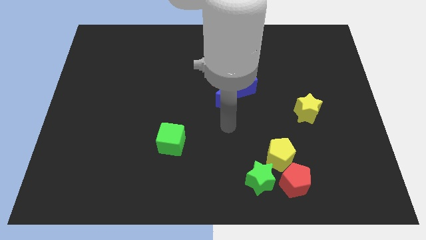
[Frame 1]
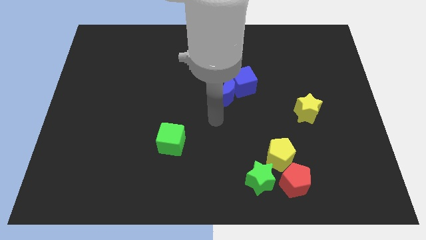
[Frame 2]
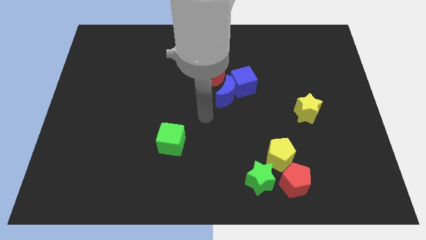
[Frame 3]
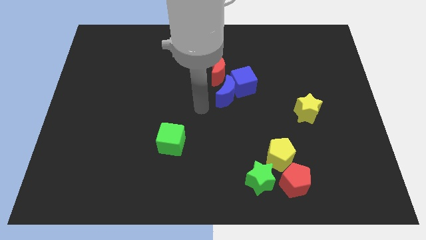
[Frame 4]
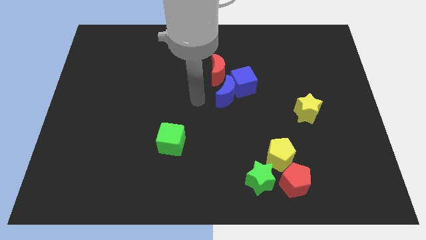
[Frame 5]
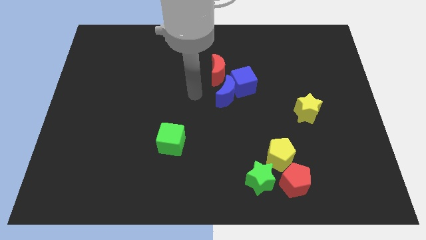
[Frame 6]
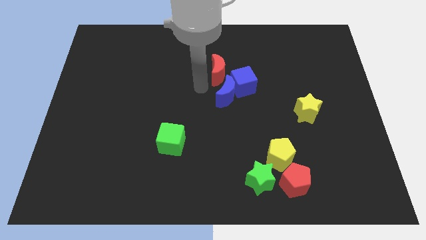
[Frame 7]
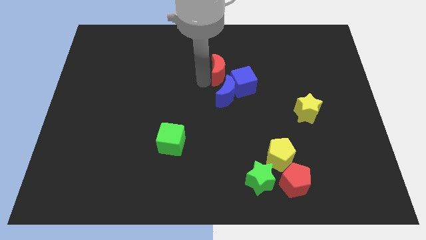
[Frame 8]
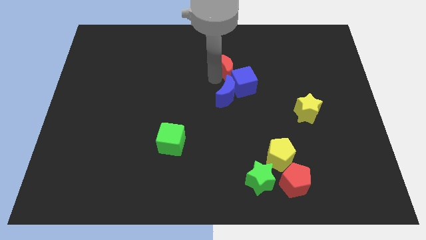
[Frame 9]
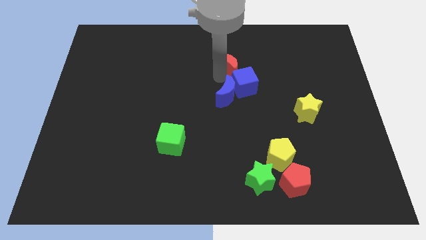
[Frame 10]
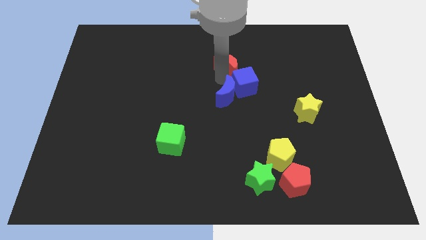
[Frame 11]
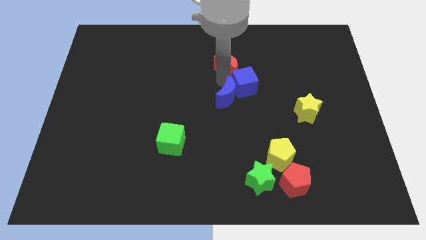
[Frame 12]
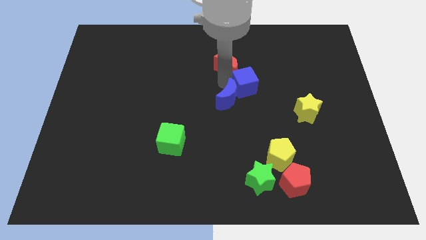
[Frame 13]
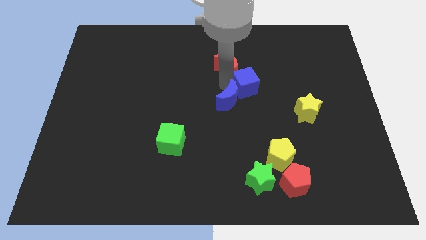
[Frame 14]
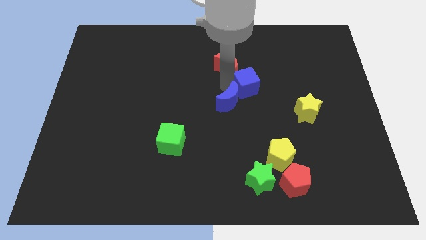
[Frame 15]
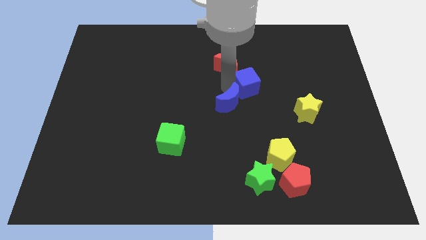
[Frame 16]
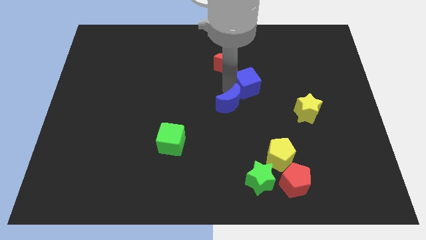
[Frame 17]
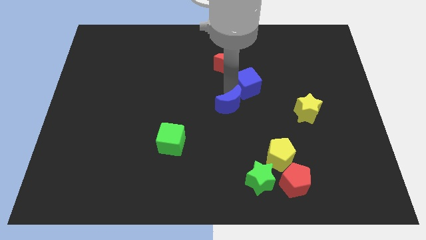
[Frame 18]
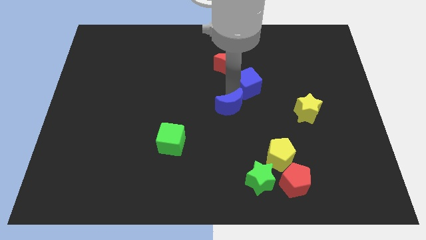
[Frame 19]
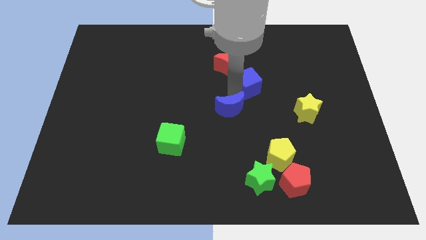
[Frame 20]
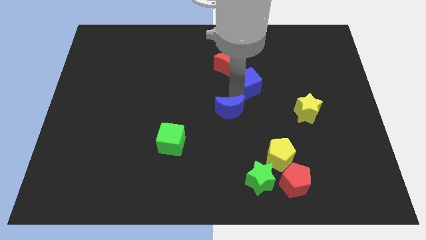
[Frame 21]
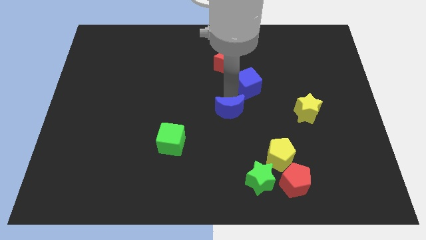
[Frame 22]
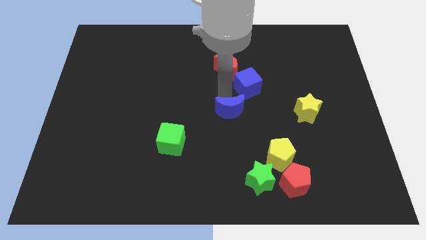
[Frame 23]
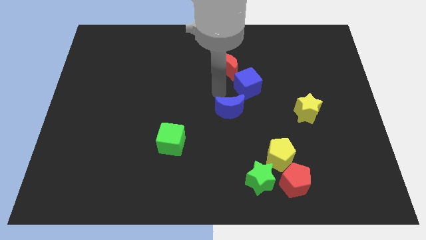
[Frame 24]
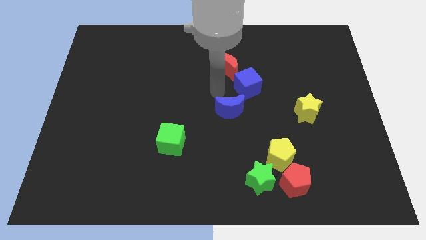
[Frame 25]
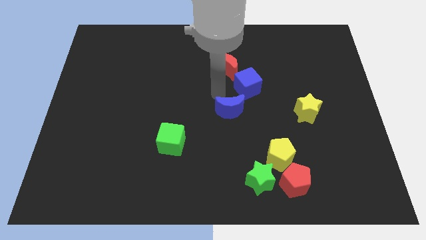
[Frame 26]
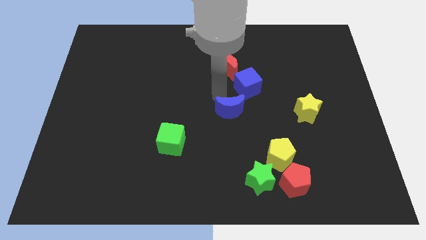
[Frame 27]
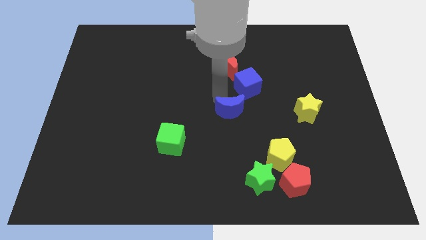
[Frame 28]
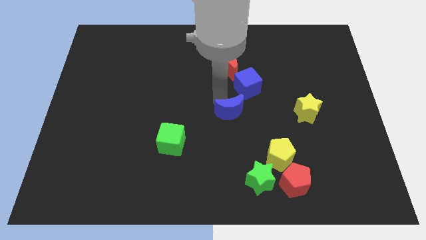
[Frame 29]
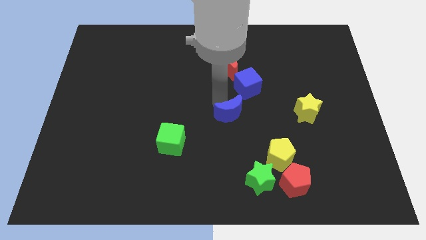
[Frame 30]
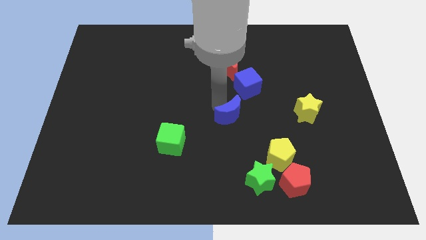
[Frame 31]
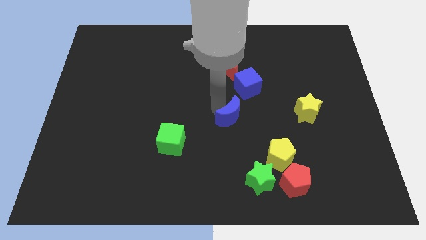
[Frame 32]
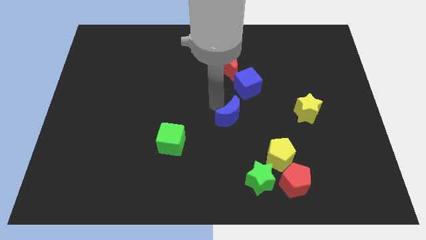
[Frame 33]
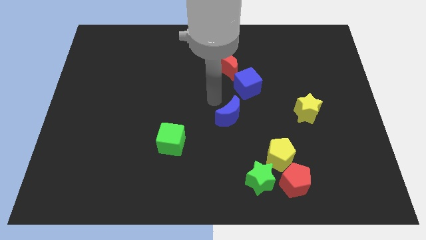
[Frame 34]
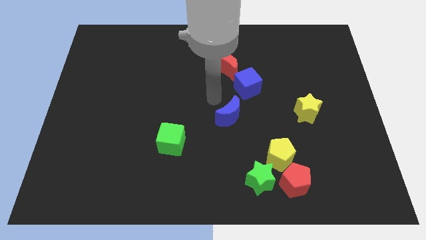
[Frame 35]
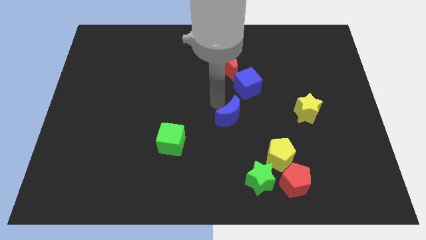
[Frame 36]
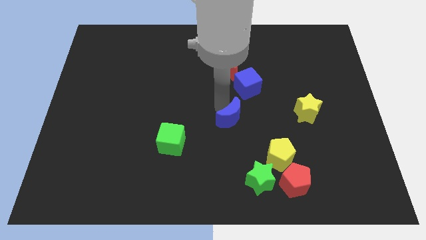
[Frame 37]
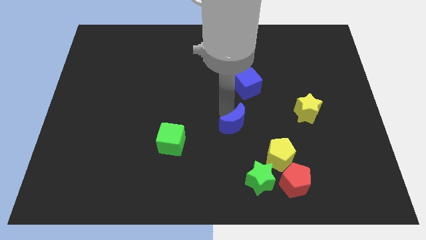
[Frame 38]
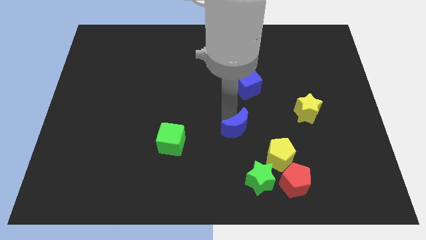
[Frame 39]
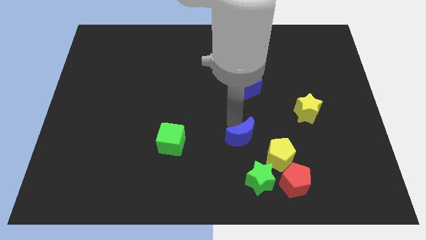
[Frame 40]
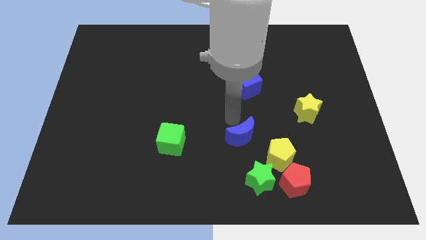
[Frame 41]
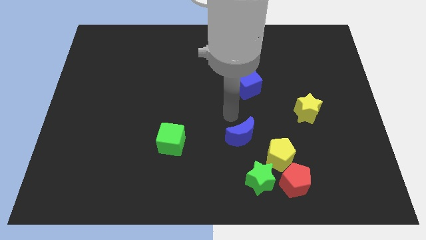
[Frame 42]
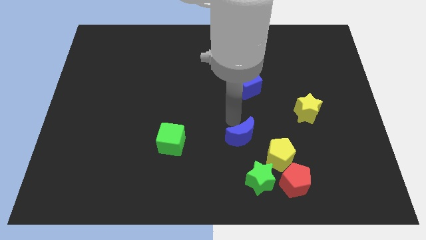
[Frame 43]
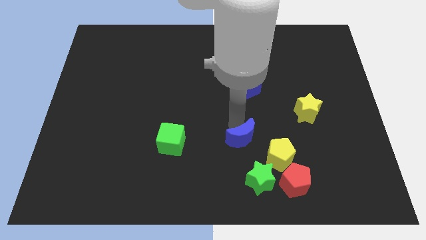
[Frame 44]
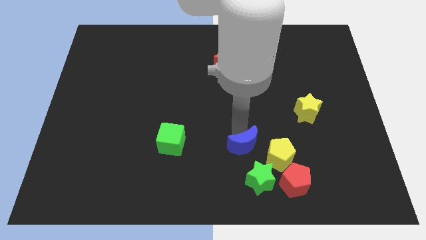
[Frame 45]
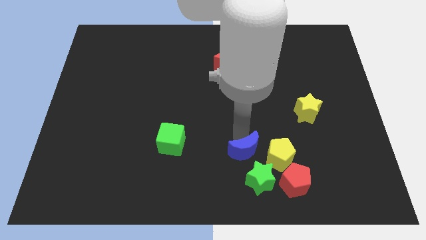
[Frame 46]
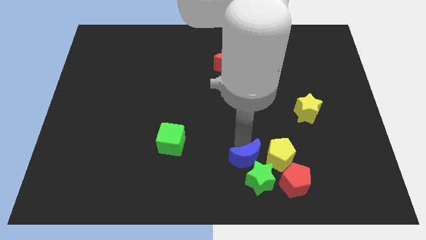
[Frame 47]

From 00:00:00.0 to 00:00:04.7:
slide the blue moon close to the green star

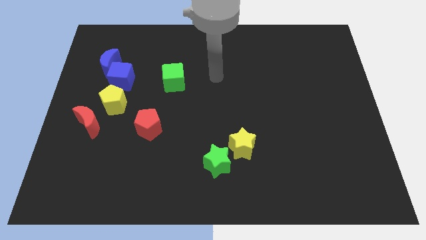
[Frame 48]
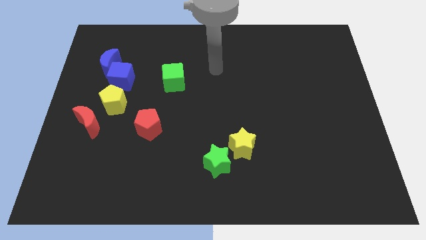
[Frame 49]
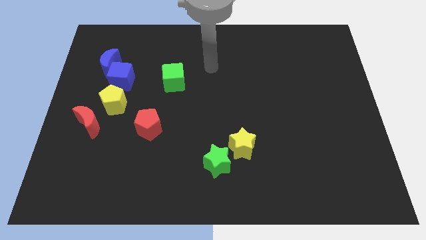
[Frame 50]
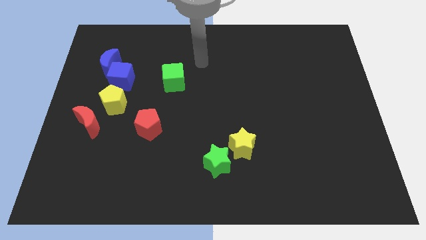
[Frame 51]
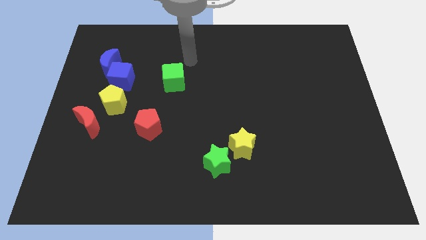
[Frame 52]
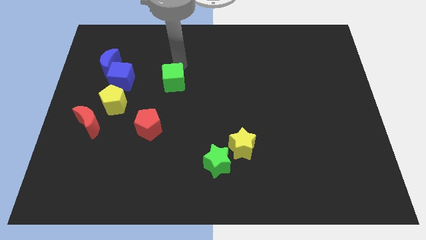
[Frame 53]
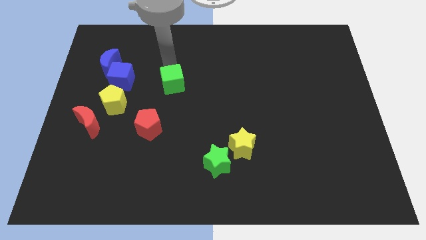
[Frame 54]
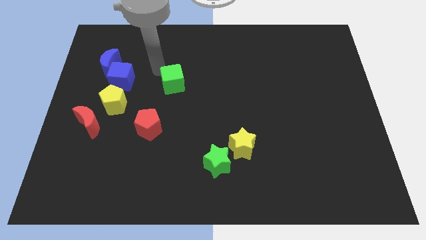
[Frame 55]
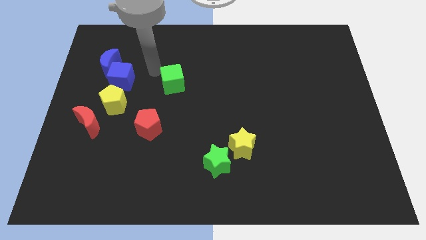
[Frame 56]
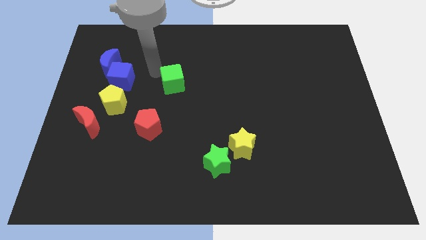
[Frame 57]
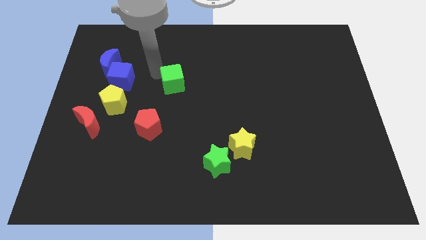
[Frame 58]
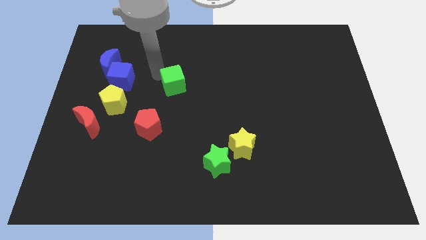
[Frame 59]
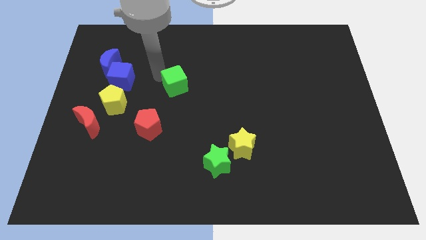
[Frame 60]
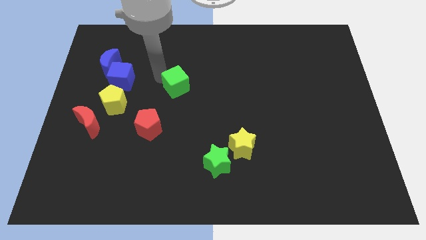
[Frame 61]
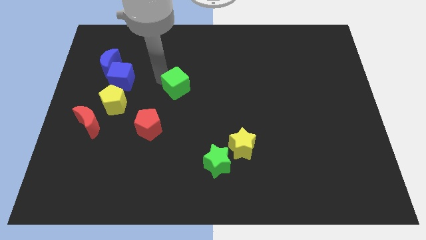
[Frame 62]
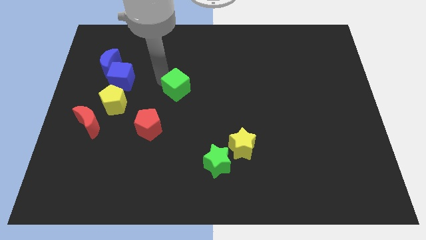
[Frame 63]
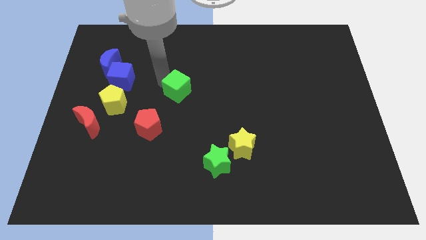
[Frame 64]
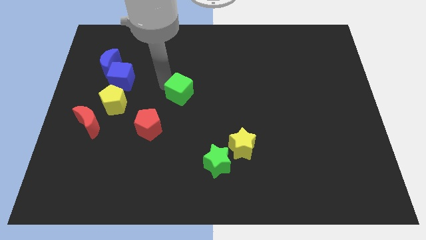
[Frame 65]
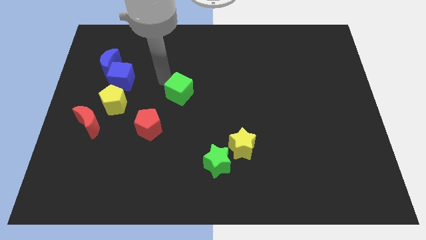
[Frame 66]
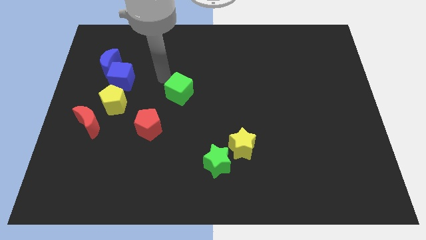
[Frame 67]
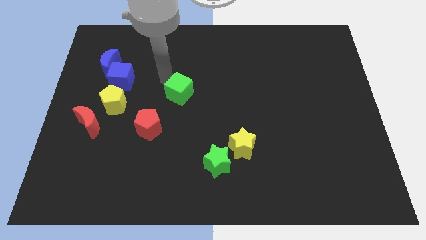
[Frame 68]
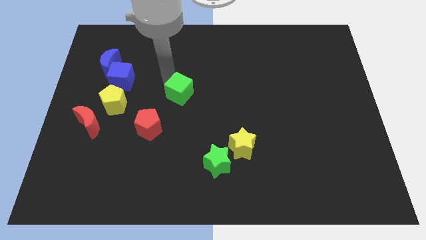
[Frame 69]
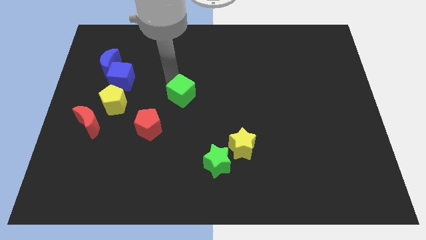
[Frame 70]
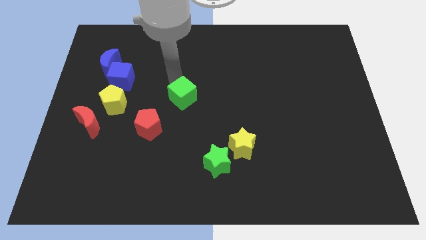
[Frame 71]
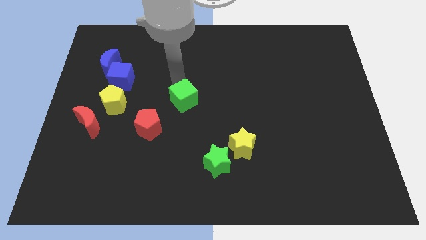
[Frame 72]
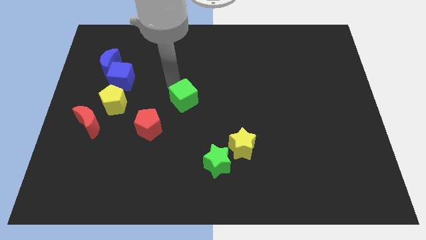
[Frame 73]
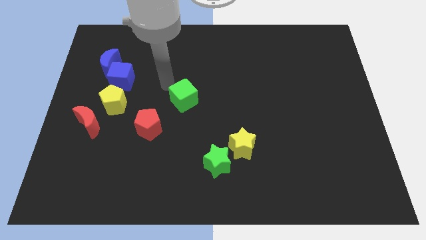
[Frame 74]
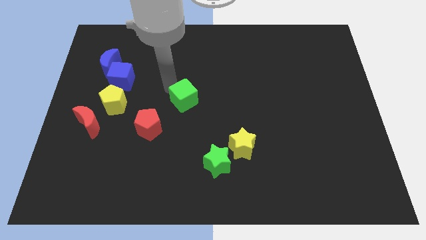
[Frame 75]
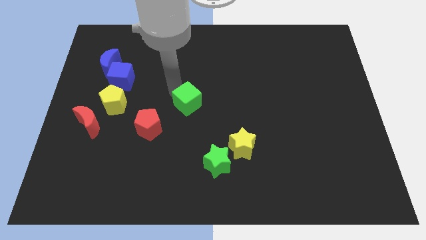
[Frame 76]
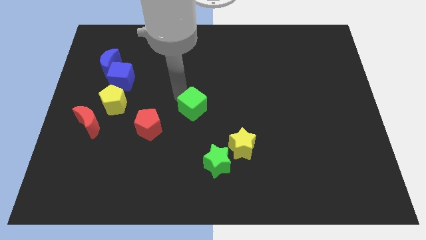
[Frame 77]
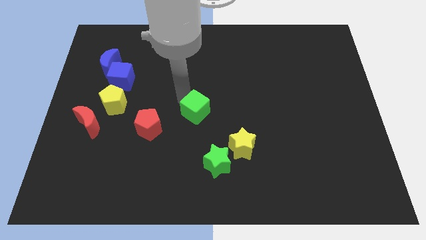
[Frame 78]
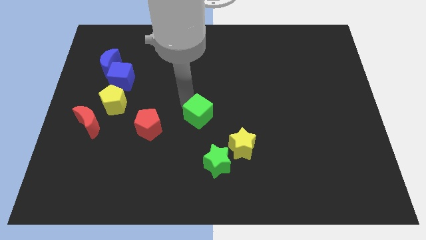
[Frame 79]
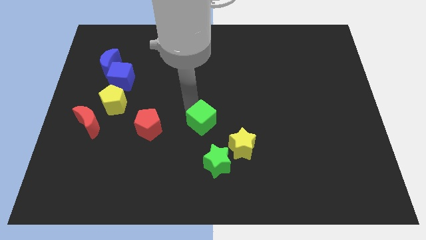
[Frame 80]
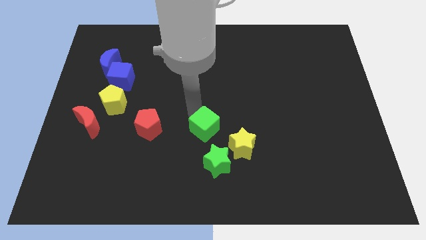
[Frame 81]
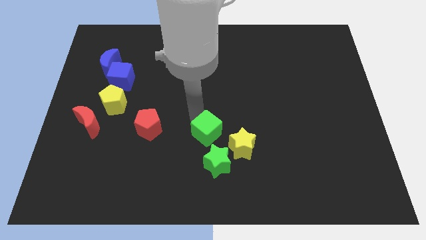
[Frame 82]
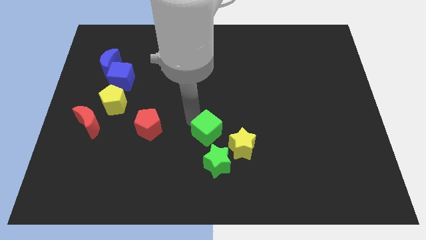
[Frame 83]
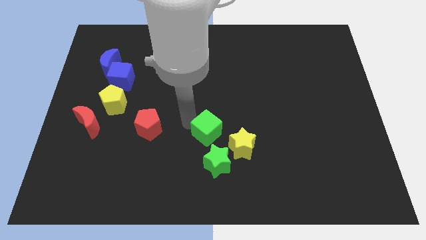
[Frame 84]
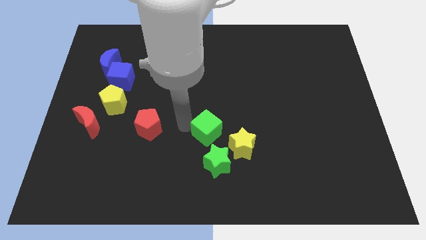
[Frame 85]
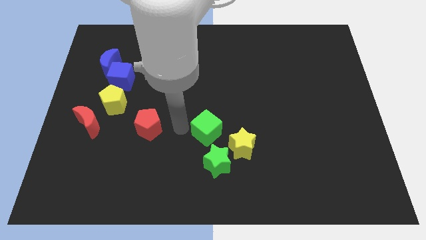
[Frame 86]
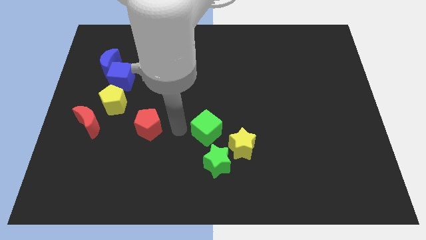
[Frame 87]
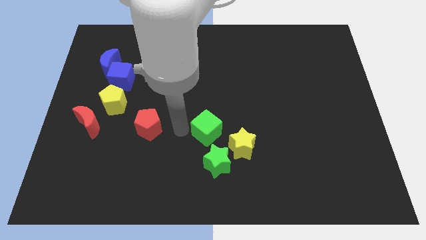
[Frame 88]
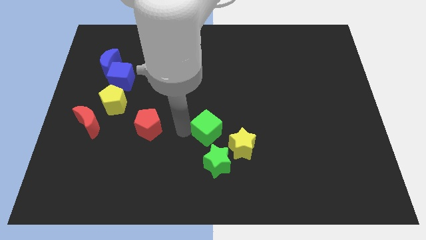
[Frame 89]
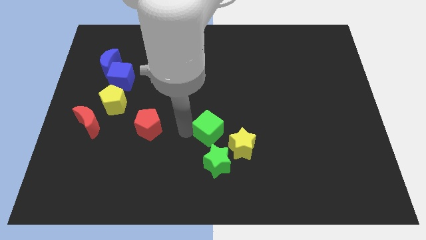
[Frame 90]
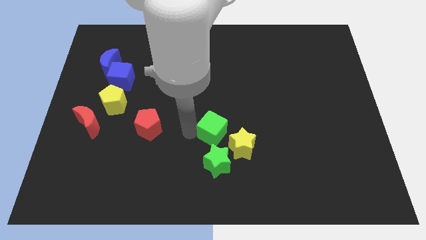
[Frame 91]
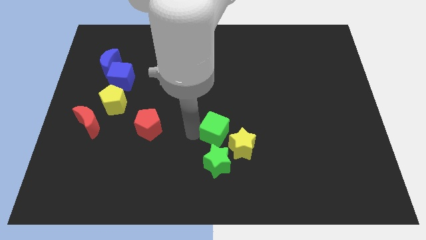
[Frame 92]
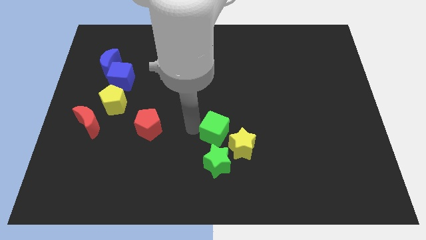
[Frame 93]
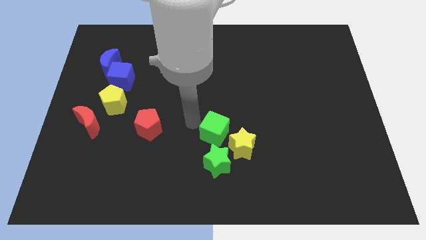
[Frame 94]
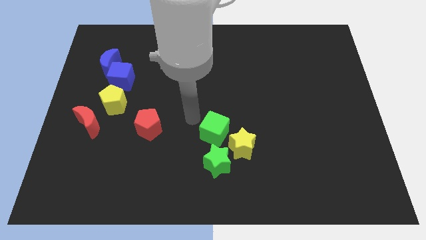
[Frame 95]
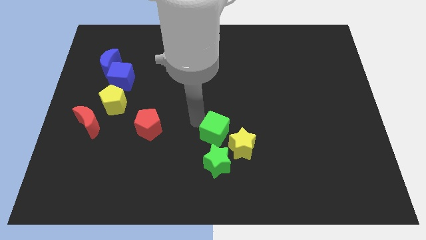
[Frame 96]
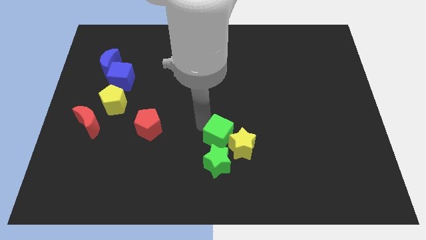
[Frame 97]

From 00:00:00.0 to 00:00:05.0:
put the green cube close to the yellow star
